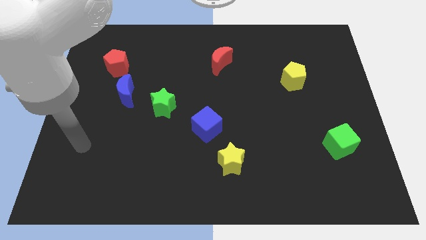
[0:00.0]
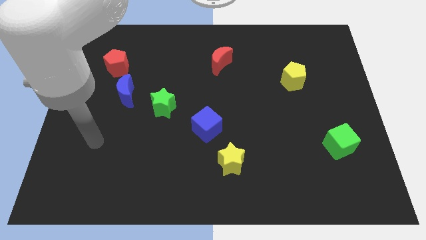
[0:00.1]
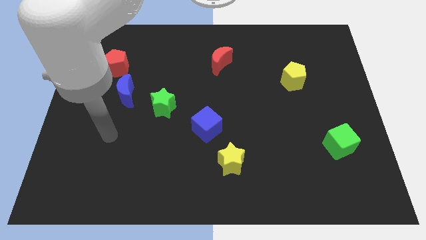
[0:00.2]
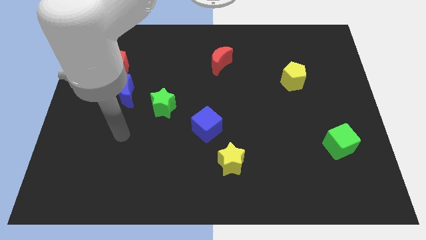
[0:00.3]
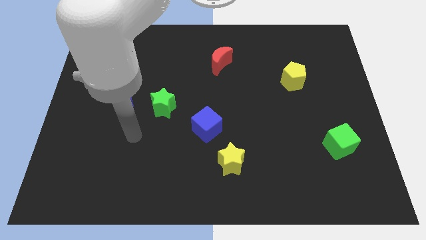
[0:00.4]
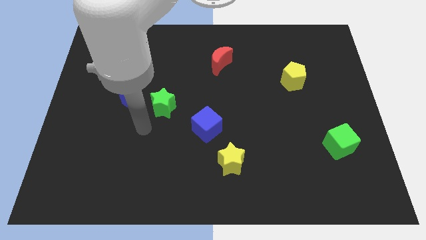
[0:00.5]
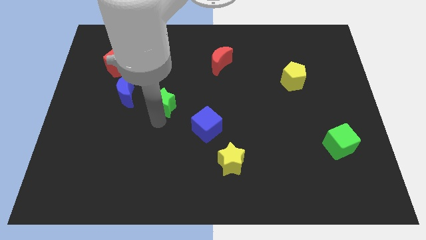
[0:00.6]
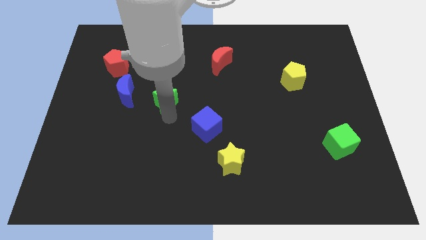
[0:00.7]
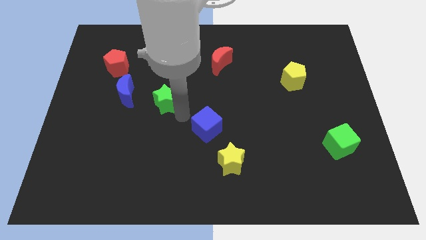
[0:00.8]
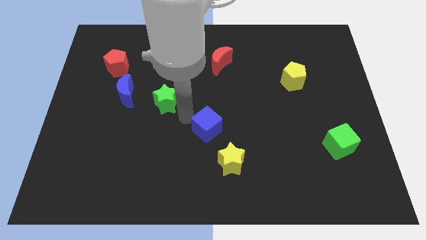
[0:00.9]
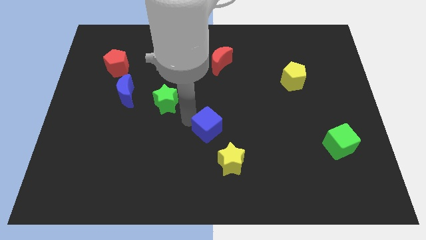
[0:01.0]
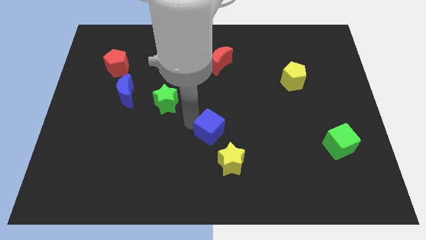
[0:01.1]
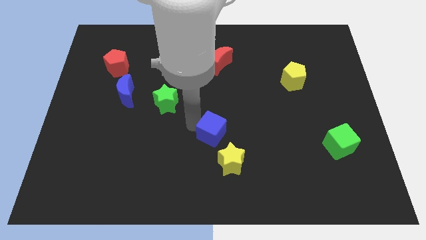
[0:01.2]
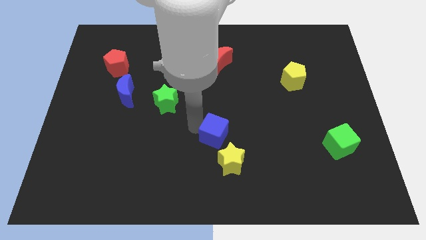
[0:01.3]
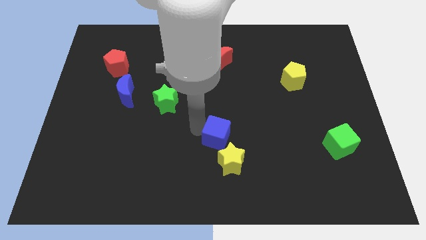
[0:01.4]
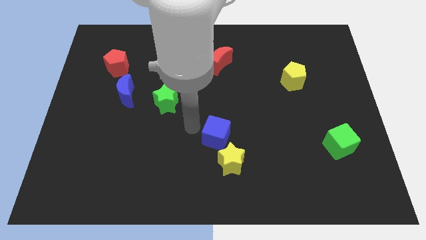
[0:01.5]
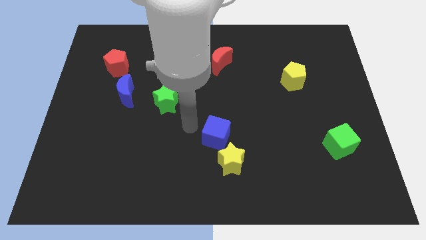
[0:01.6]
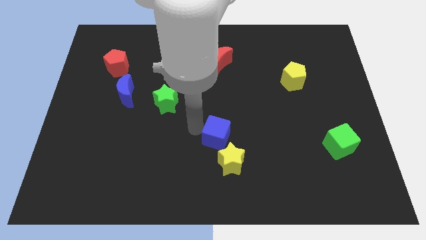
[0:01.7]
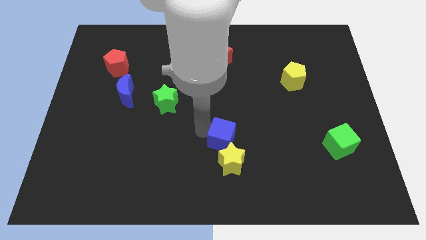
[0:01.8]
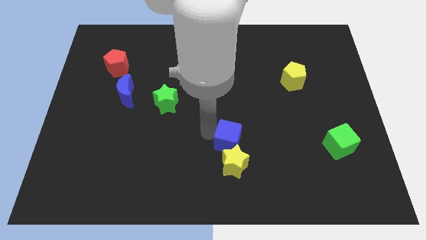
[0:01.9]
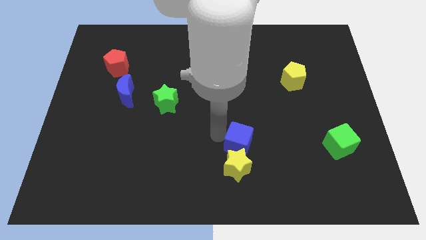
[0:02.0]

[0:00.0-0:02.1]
slightly push the blue cube down and then right

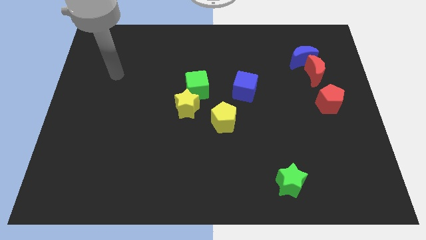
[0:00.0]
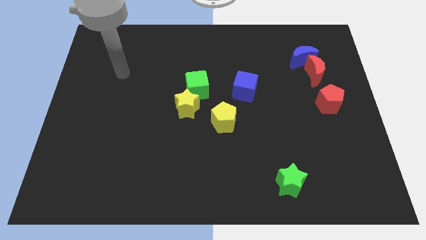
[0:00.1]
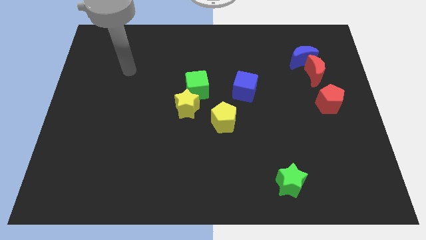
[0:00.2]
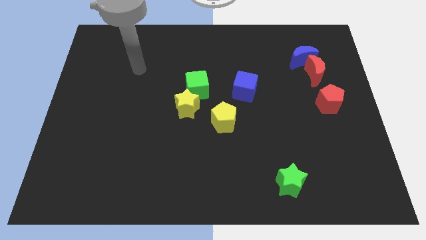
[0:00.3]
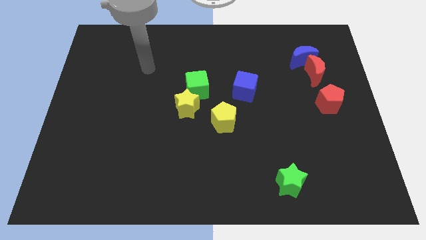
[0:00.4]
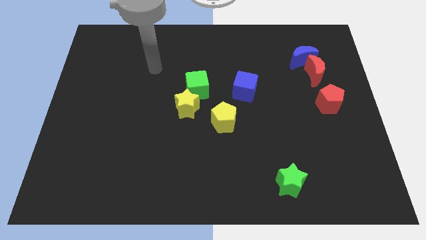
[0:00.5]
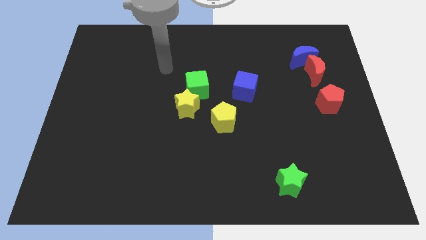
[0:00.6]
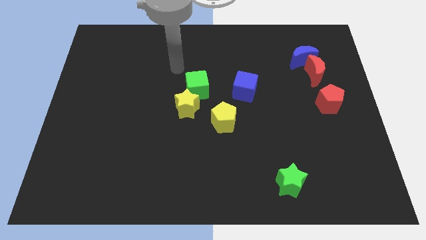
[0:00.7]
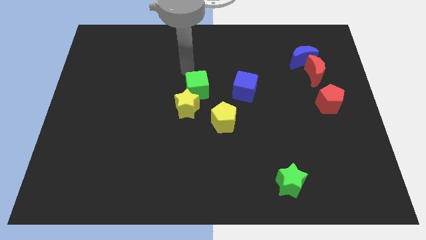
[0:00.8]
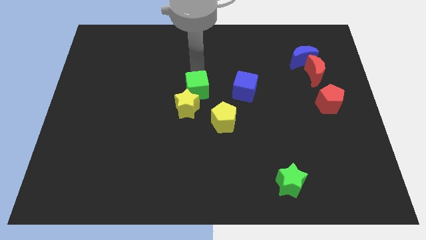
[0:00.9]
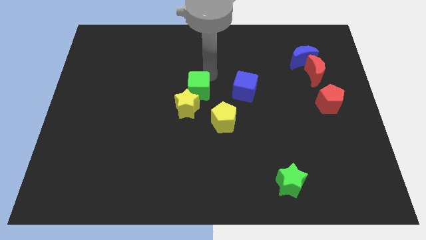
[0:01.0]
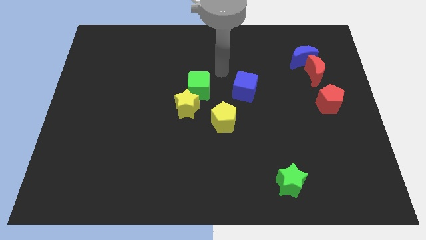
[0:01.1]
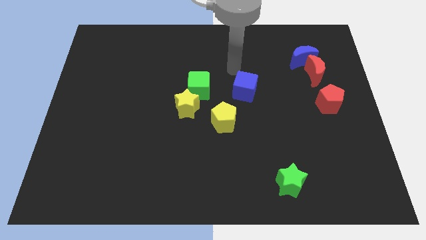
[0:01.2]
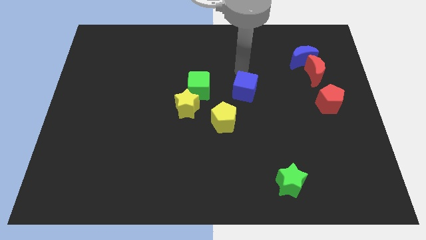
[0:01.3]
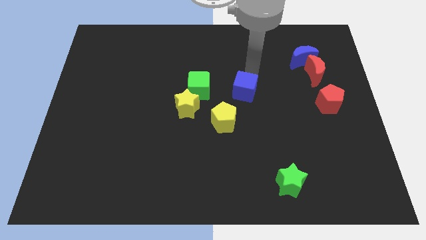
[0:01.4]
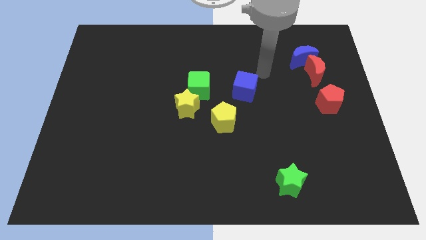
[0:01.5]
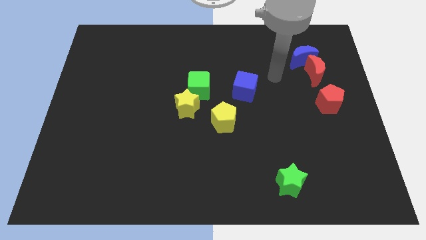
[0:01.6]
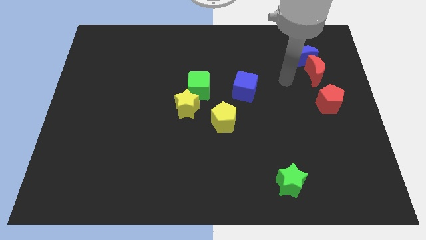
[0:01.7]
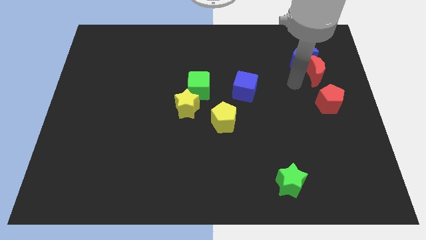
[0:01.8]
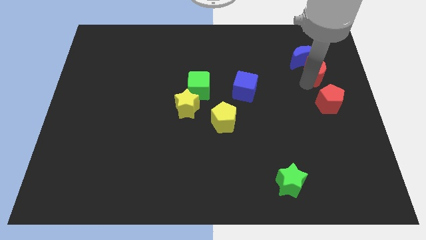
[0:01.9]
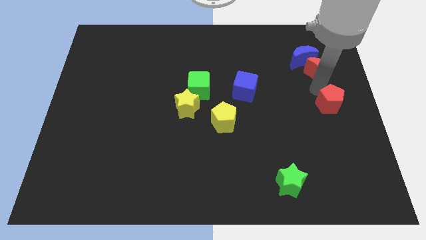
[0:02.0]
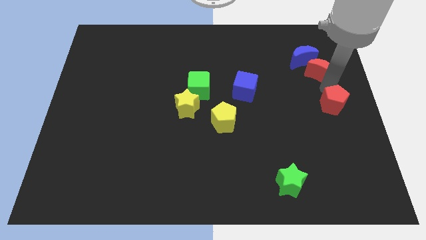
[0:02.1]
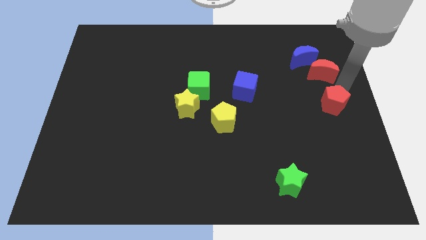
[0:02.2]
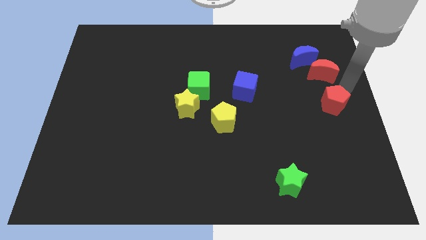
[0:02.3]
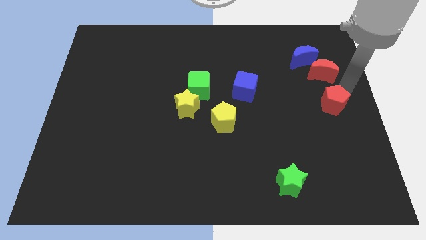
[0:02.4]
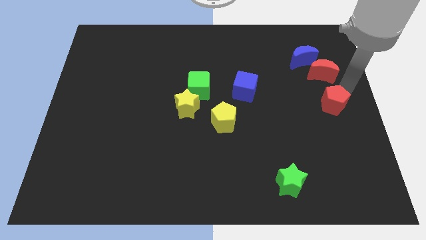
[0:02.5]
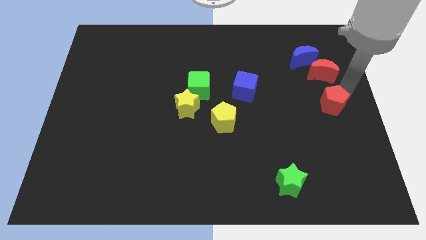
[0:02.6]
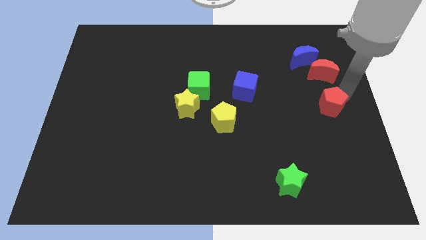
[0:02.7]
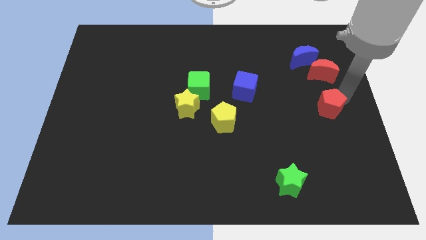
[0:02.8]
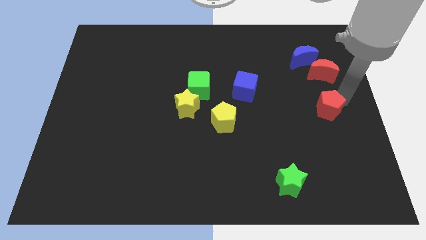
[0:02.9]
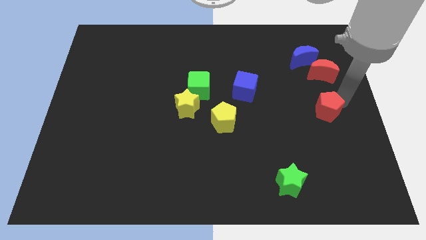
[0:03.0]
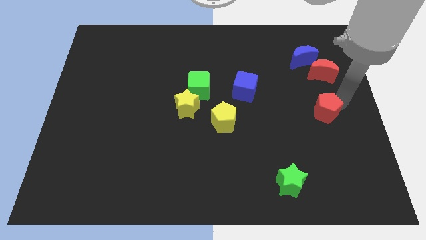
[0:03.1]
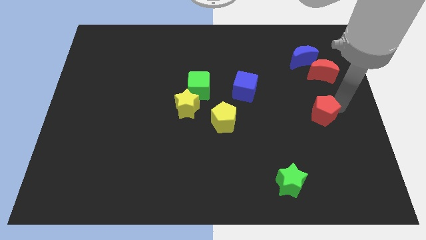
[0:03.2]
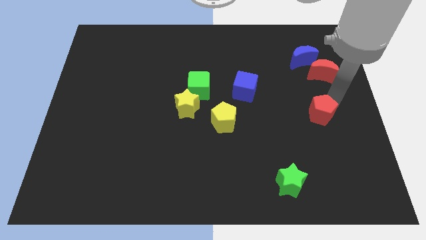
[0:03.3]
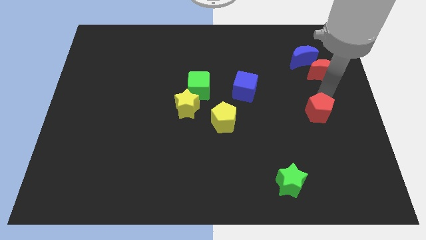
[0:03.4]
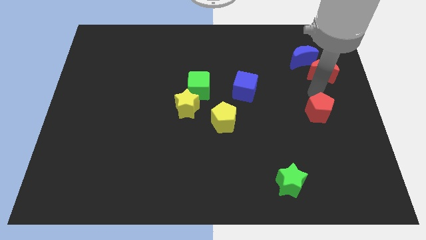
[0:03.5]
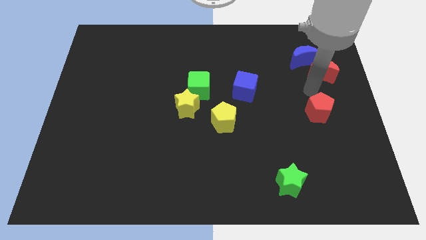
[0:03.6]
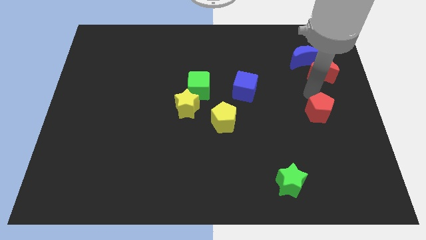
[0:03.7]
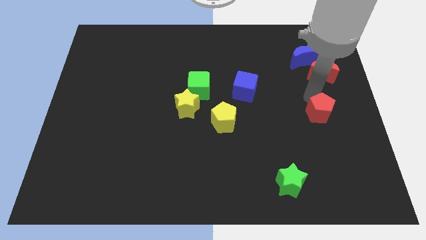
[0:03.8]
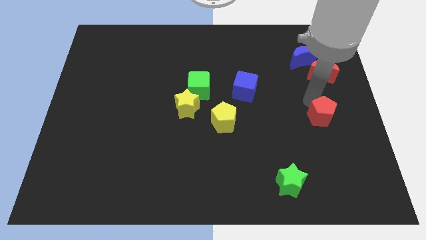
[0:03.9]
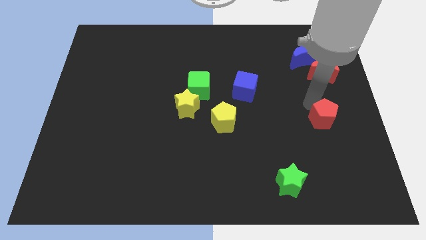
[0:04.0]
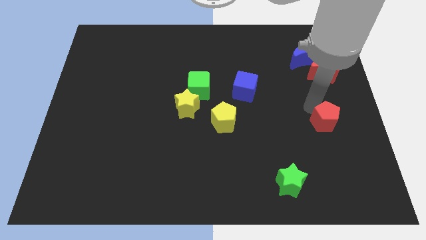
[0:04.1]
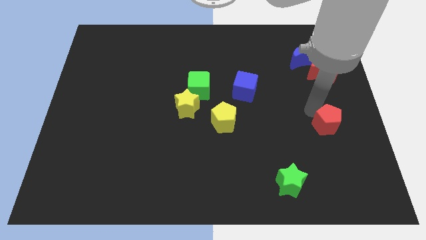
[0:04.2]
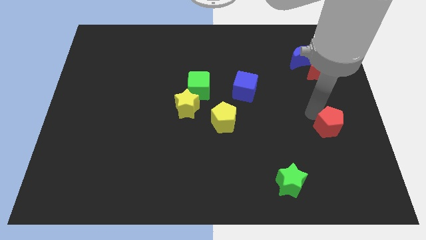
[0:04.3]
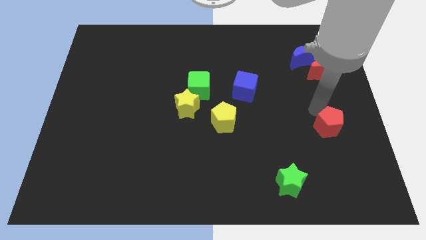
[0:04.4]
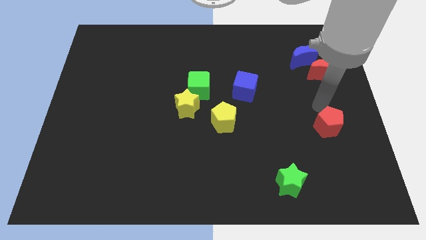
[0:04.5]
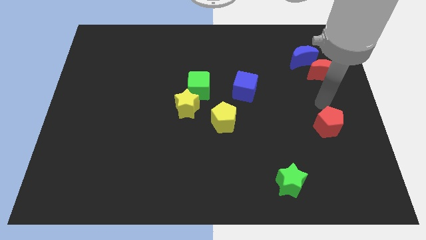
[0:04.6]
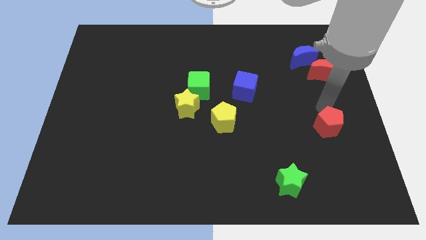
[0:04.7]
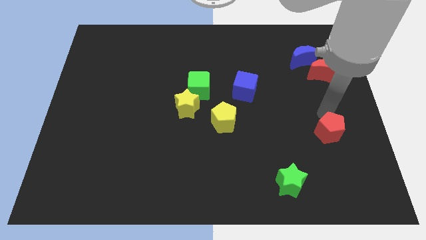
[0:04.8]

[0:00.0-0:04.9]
move the red pentagon a little downwards

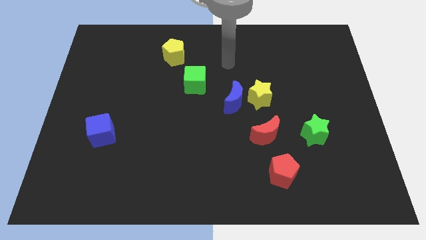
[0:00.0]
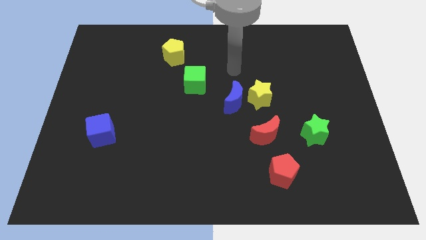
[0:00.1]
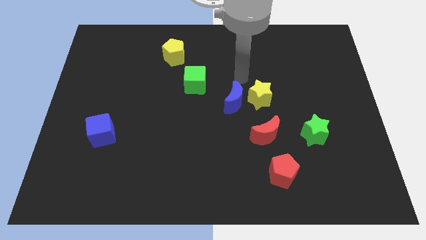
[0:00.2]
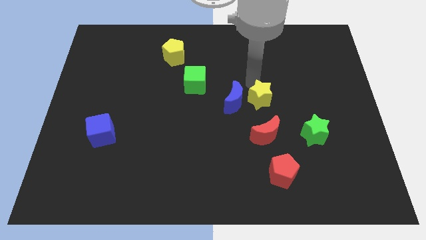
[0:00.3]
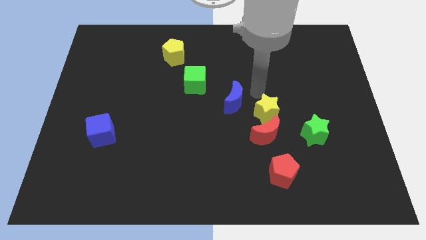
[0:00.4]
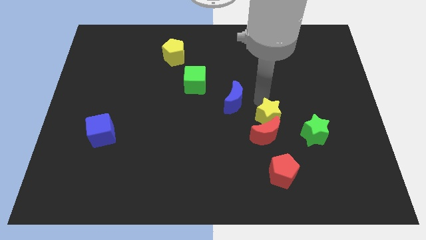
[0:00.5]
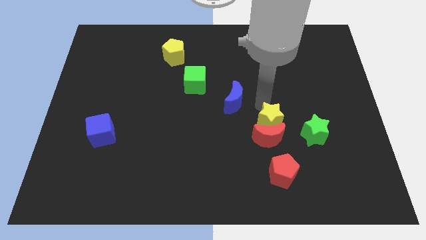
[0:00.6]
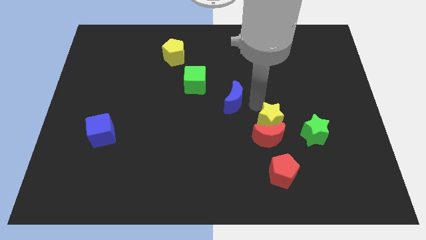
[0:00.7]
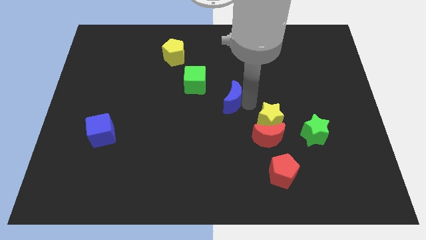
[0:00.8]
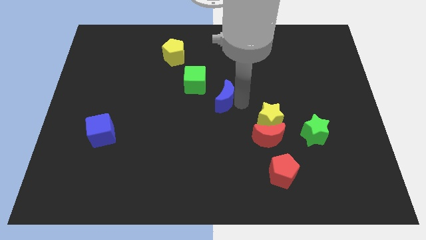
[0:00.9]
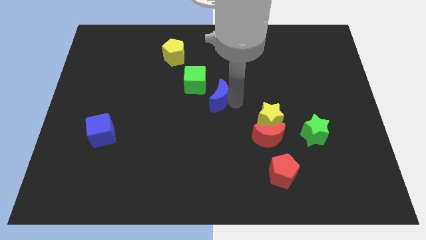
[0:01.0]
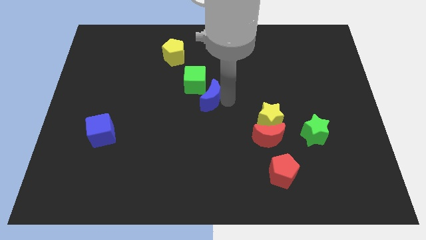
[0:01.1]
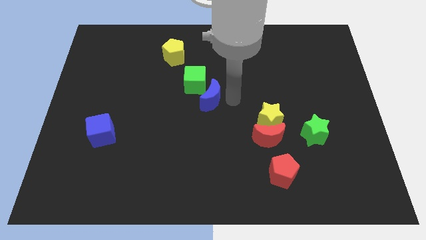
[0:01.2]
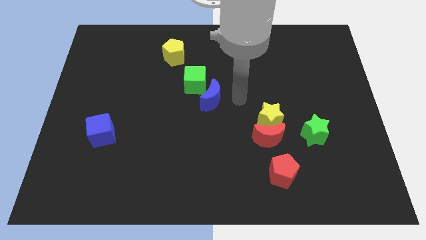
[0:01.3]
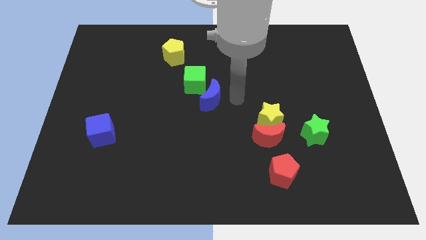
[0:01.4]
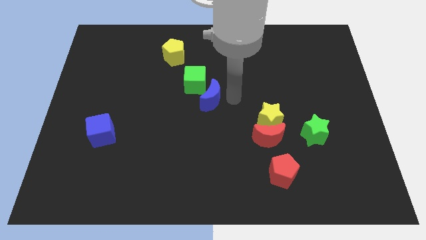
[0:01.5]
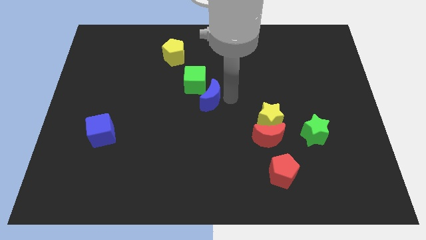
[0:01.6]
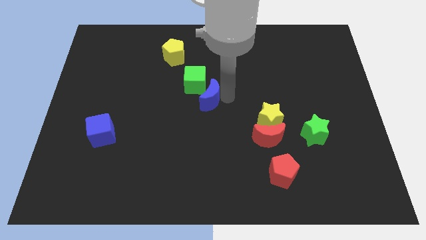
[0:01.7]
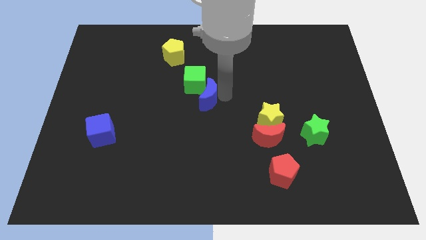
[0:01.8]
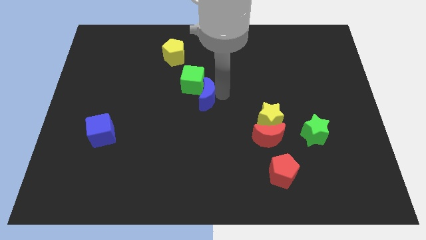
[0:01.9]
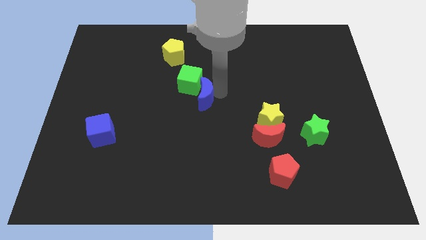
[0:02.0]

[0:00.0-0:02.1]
slide the blue moon a little bit to the left
